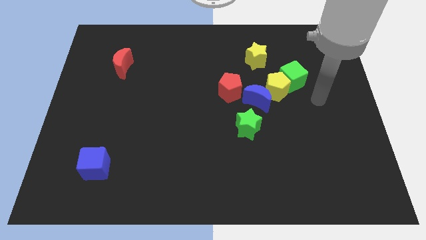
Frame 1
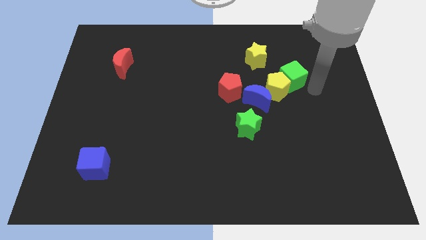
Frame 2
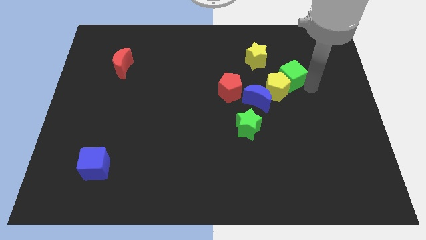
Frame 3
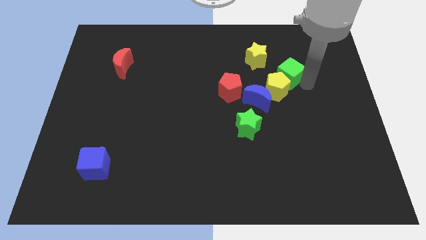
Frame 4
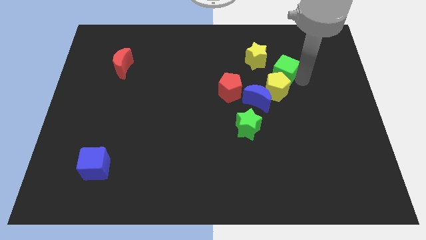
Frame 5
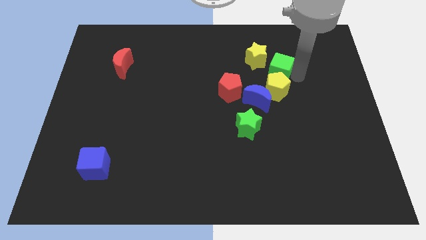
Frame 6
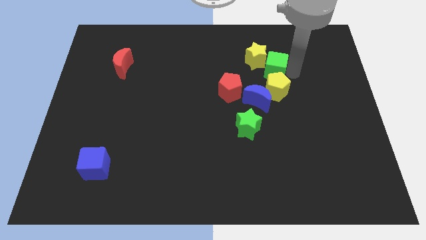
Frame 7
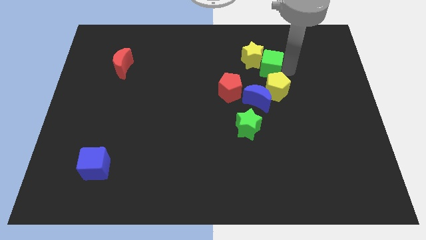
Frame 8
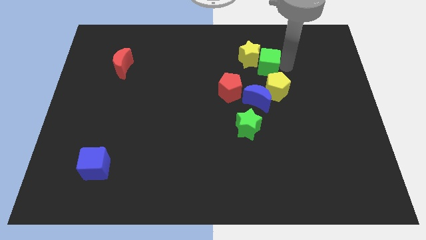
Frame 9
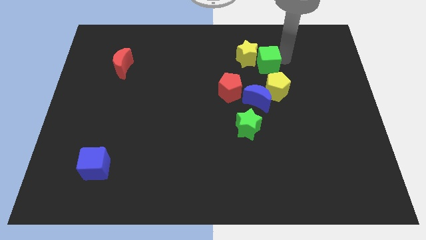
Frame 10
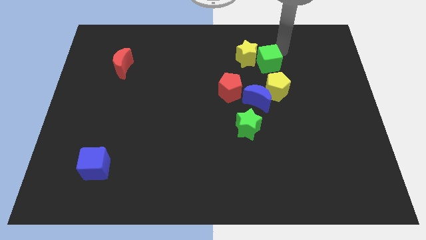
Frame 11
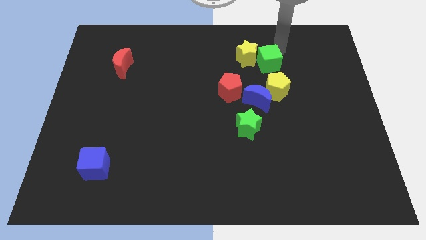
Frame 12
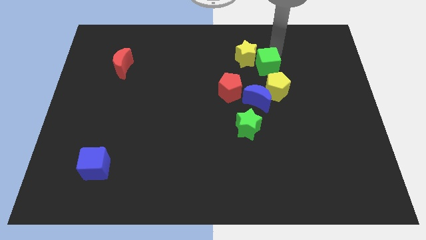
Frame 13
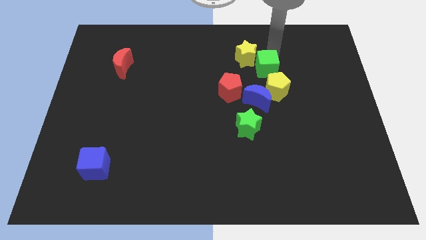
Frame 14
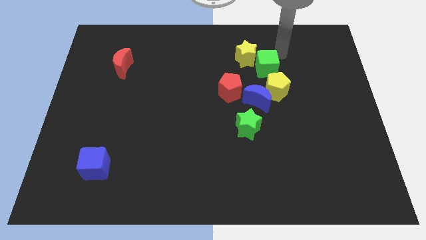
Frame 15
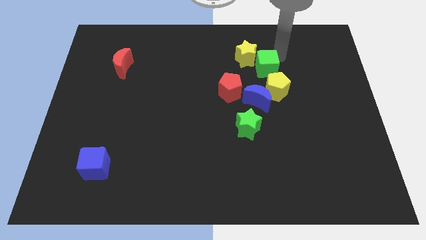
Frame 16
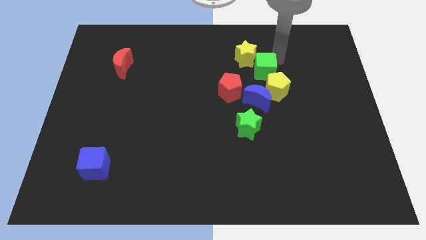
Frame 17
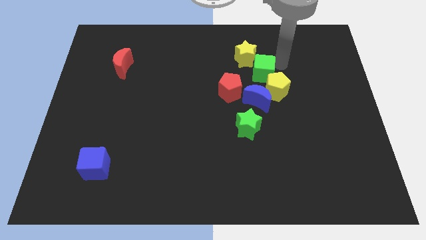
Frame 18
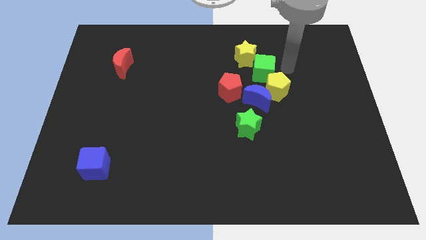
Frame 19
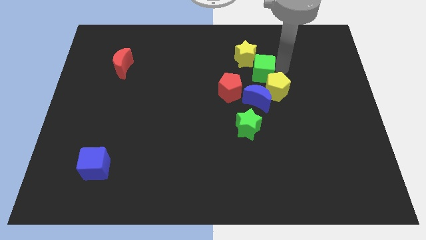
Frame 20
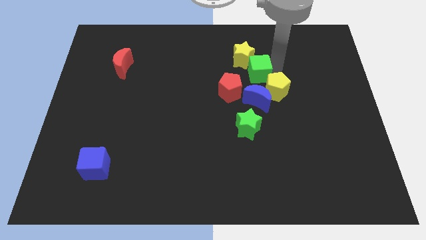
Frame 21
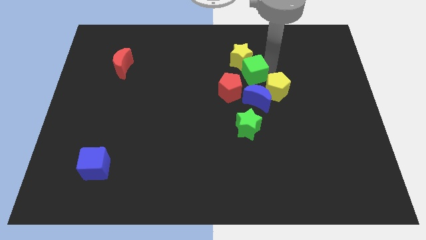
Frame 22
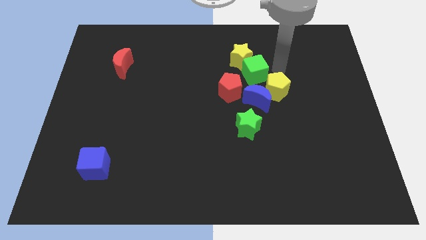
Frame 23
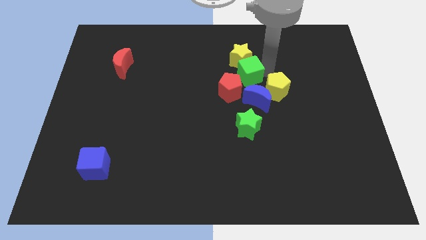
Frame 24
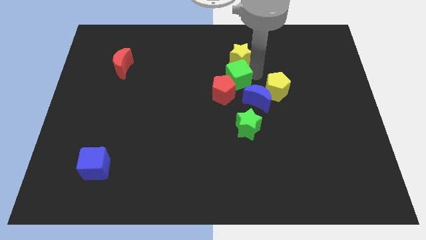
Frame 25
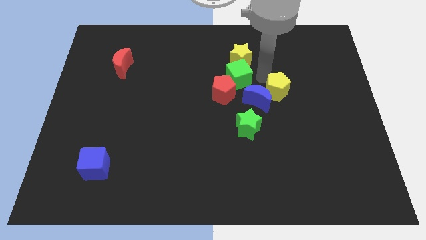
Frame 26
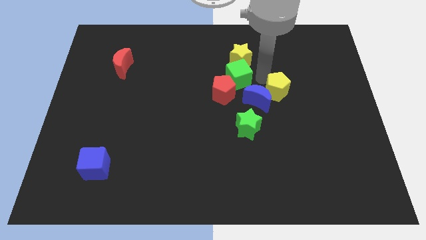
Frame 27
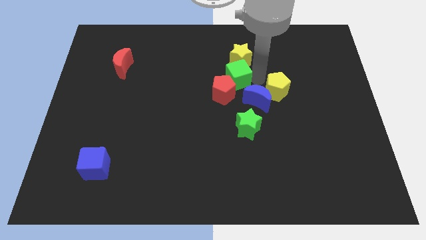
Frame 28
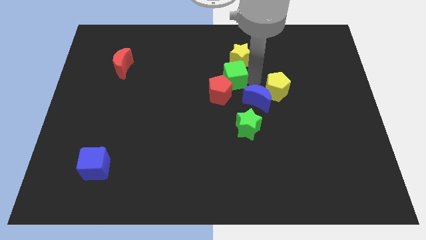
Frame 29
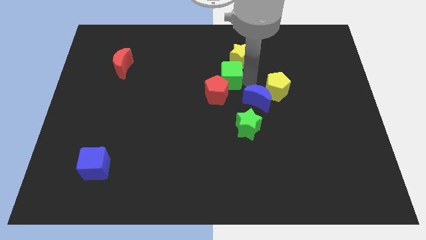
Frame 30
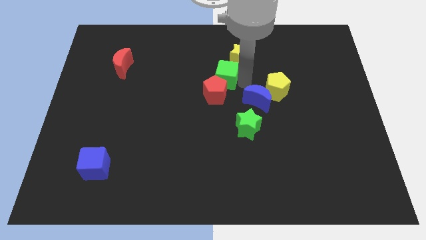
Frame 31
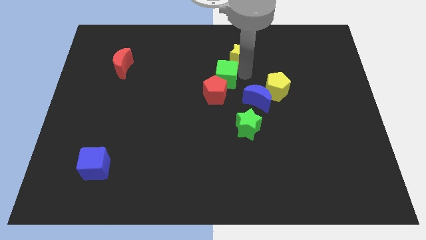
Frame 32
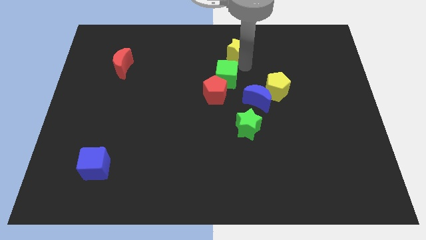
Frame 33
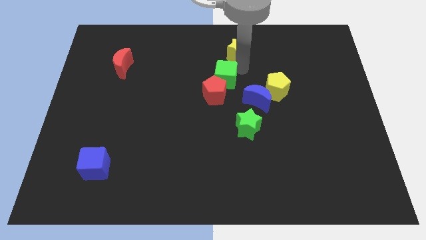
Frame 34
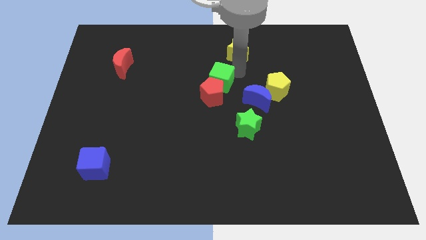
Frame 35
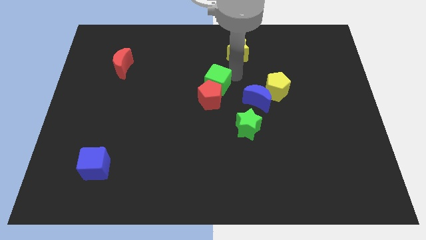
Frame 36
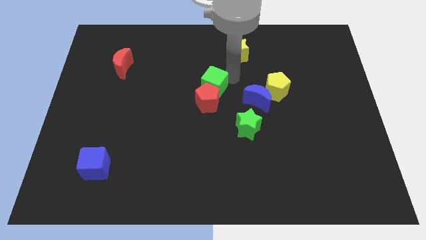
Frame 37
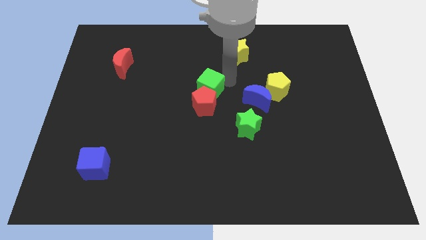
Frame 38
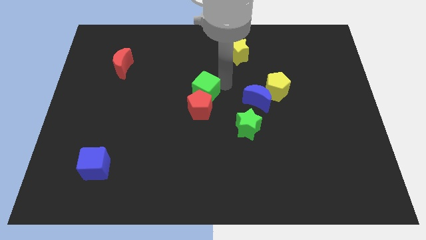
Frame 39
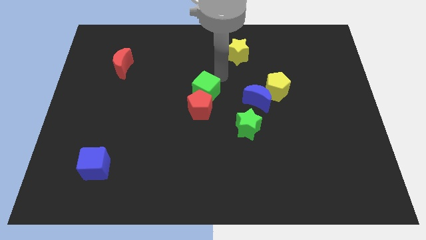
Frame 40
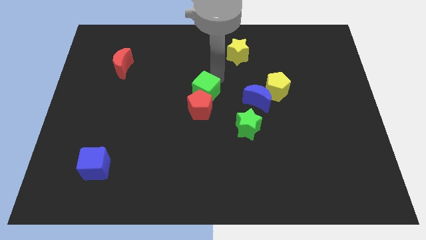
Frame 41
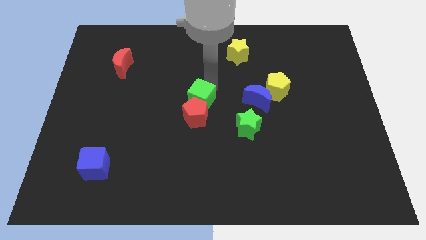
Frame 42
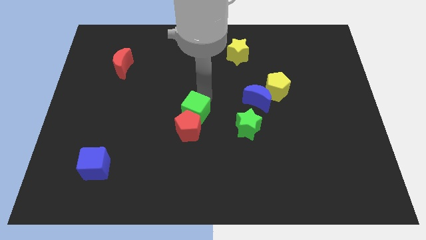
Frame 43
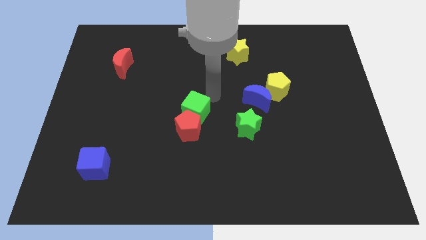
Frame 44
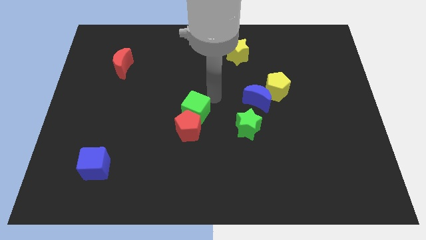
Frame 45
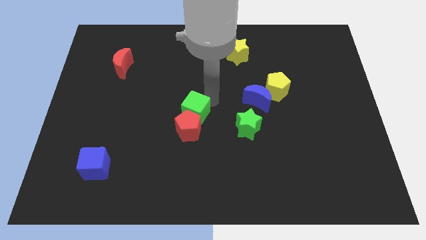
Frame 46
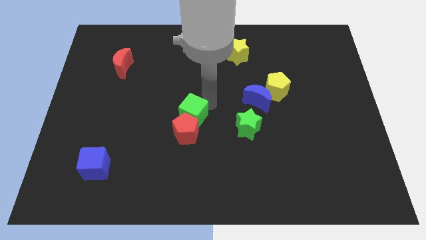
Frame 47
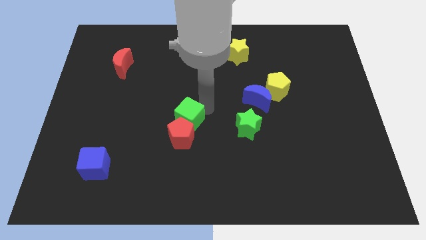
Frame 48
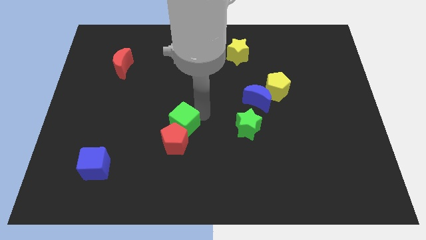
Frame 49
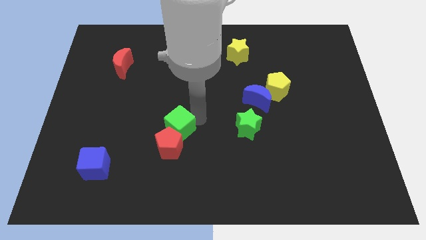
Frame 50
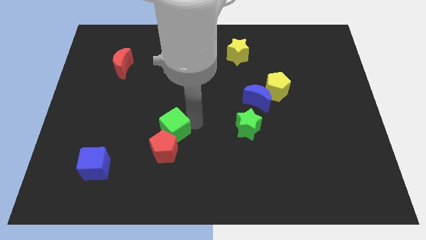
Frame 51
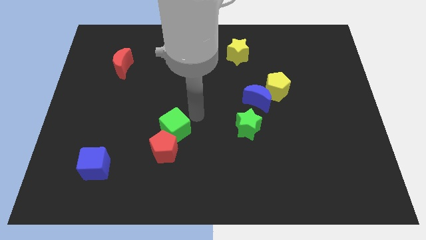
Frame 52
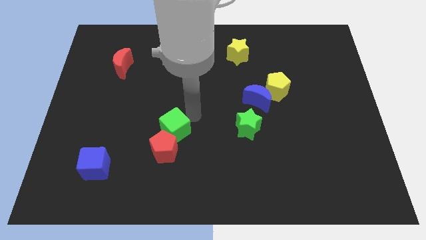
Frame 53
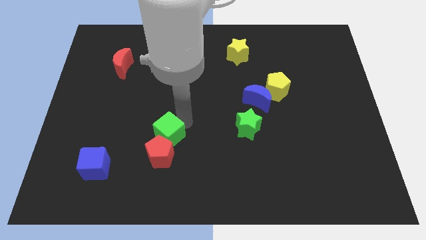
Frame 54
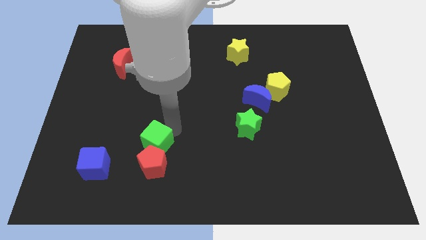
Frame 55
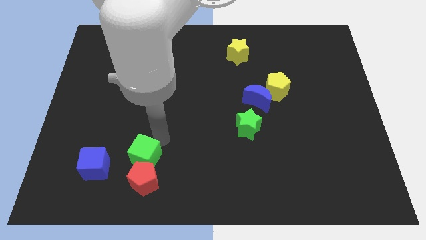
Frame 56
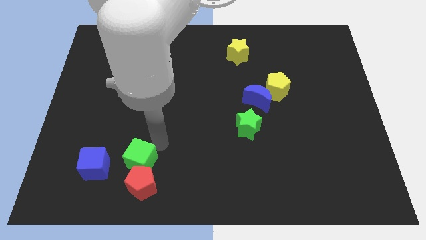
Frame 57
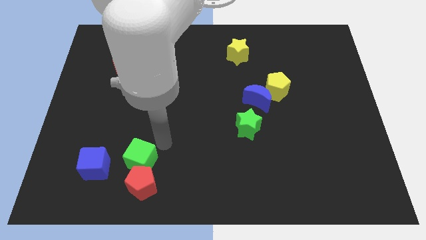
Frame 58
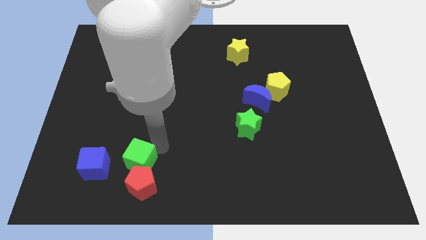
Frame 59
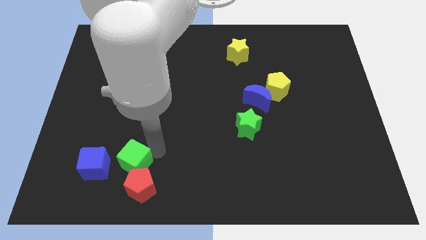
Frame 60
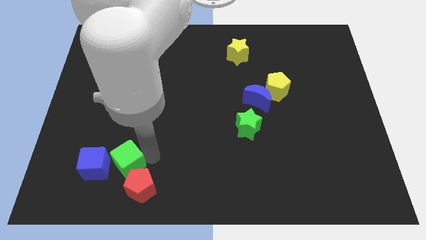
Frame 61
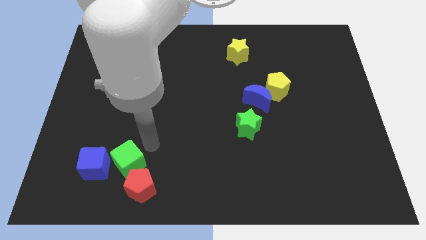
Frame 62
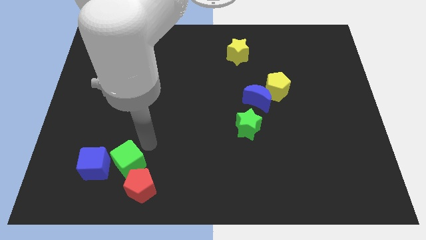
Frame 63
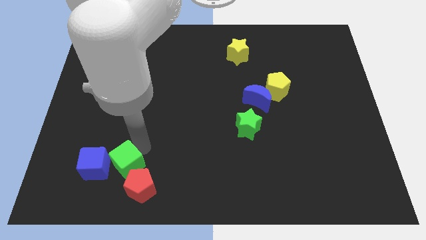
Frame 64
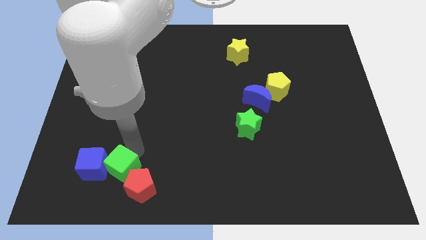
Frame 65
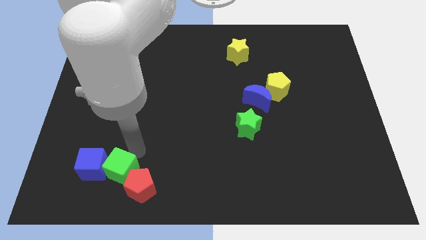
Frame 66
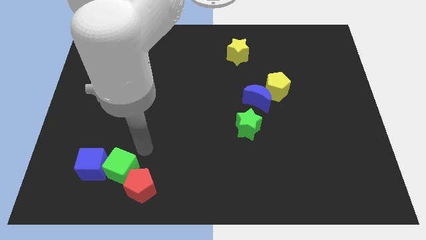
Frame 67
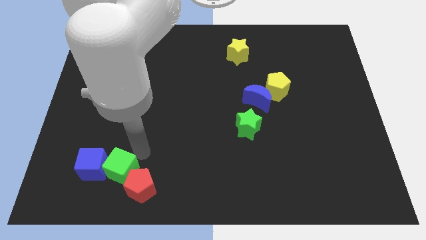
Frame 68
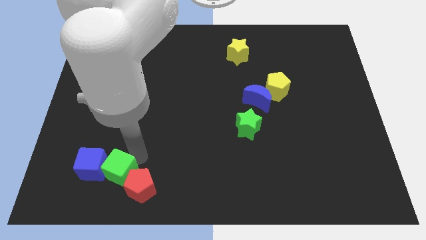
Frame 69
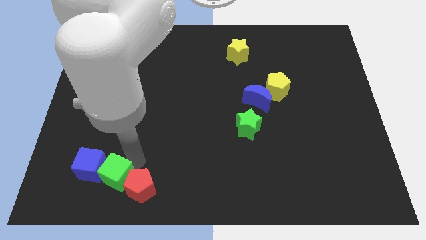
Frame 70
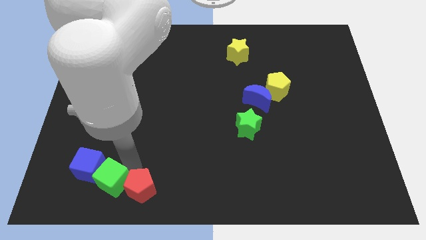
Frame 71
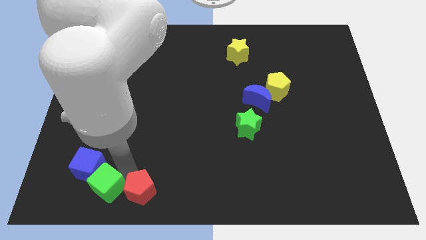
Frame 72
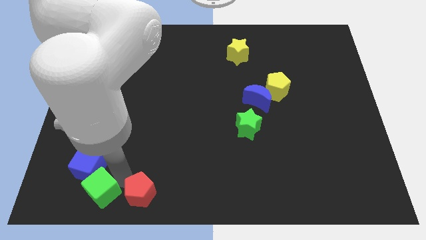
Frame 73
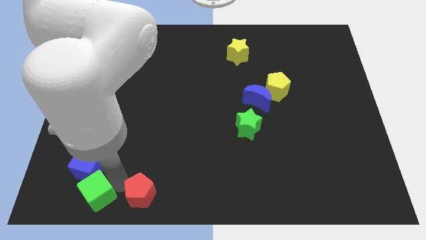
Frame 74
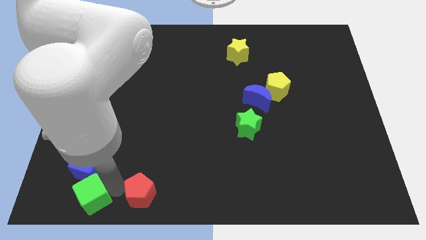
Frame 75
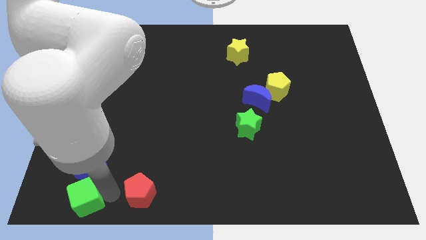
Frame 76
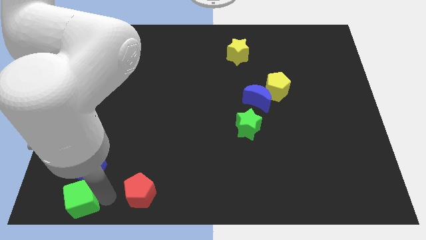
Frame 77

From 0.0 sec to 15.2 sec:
push the green cube to the bottom left of the board
